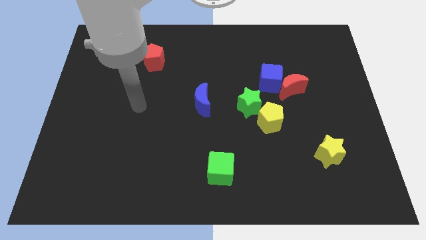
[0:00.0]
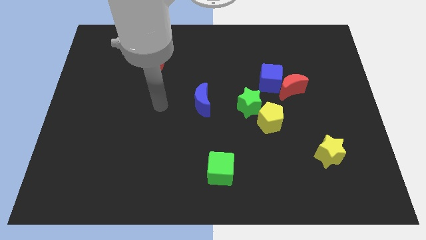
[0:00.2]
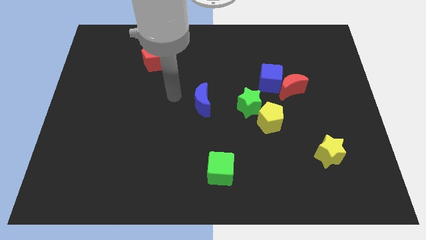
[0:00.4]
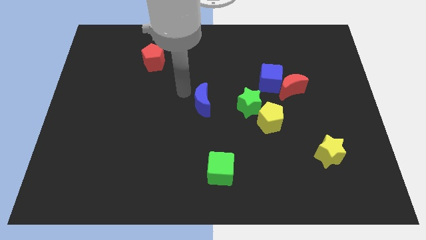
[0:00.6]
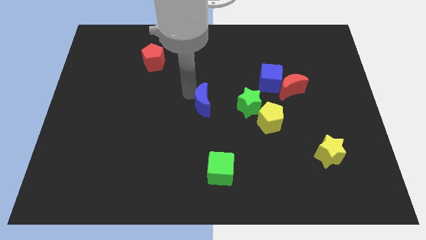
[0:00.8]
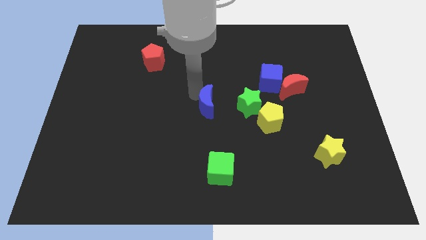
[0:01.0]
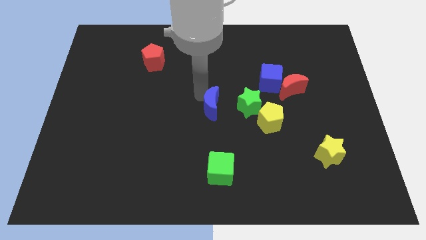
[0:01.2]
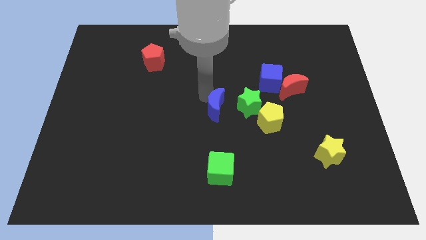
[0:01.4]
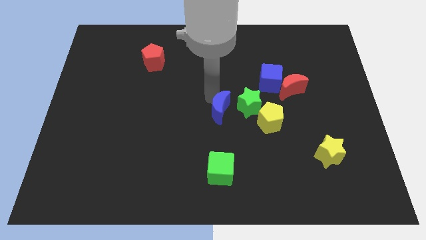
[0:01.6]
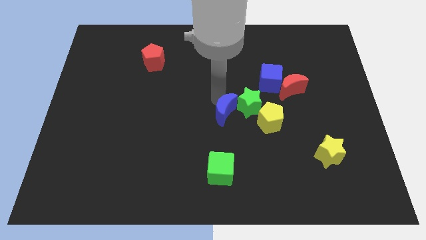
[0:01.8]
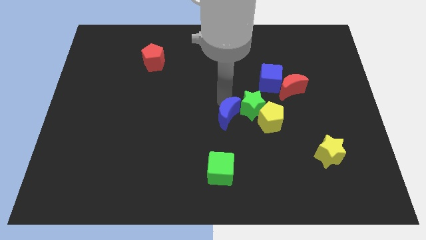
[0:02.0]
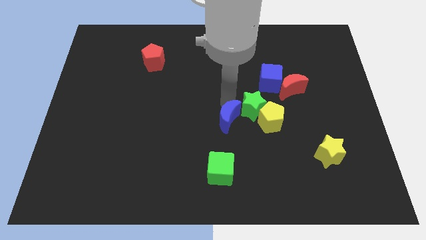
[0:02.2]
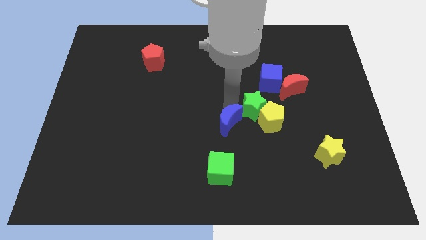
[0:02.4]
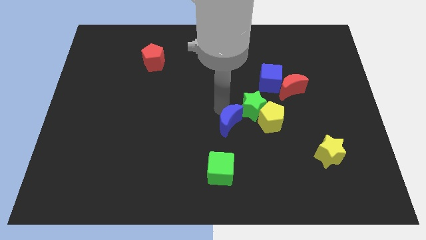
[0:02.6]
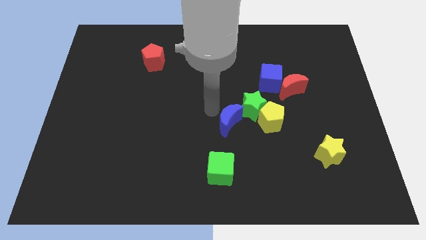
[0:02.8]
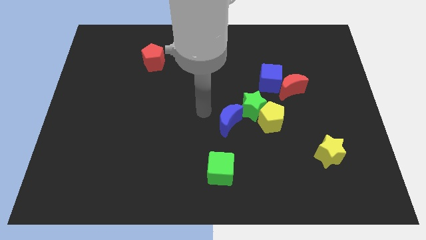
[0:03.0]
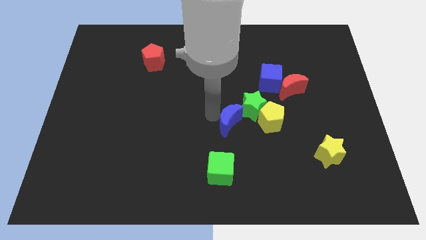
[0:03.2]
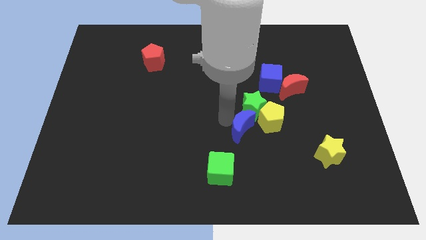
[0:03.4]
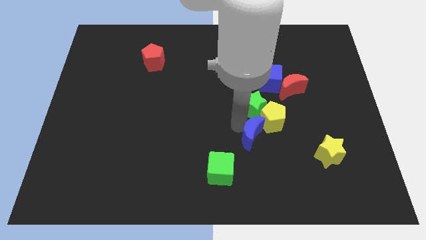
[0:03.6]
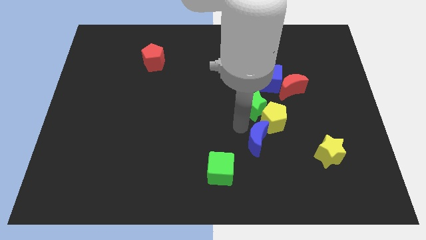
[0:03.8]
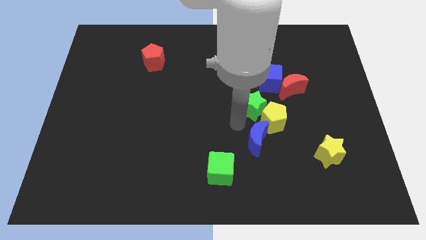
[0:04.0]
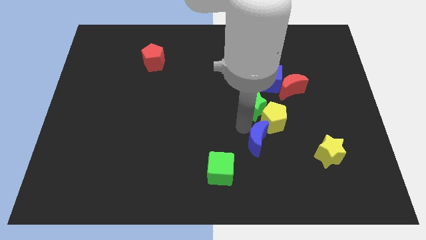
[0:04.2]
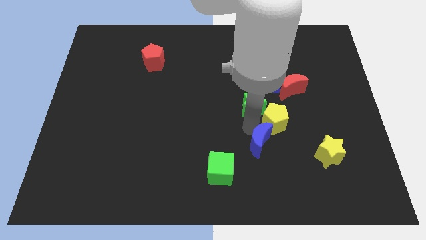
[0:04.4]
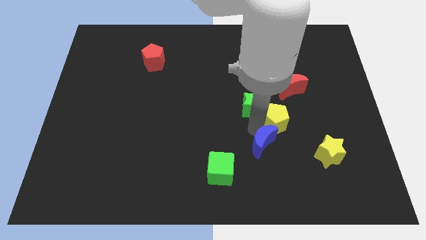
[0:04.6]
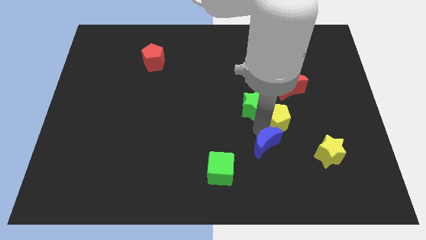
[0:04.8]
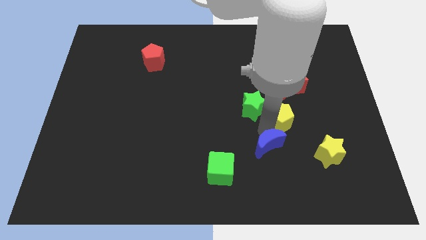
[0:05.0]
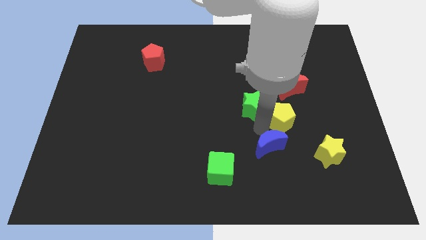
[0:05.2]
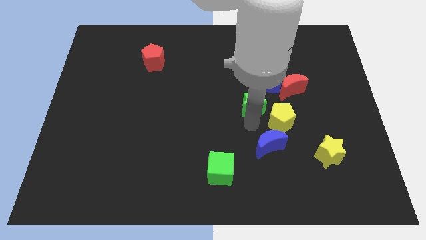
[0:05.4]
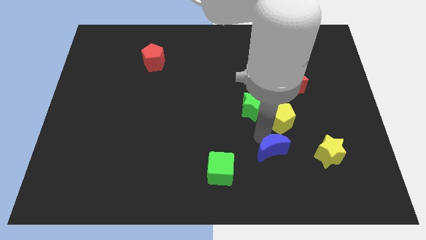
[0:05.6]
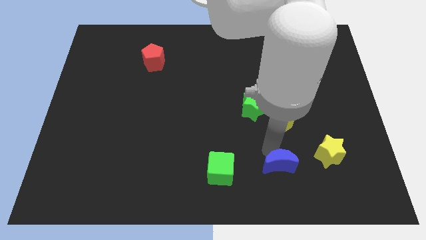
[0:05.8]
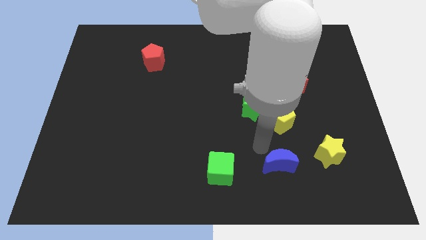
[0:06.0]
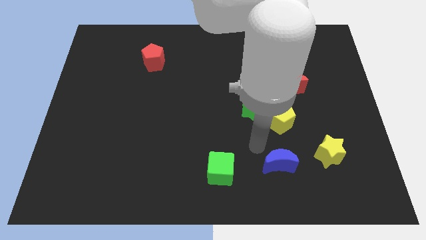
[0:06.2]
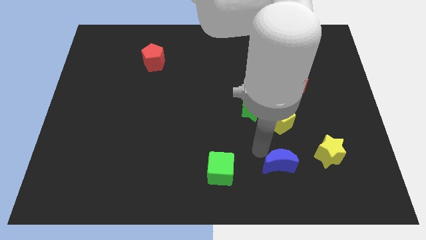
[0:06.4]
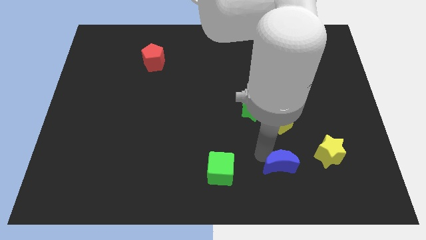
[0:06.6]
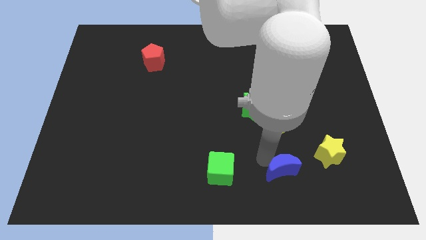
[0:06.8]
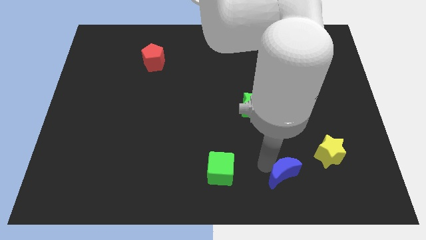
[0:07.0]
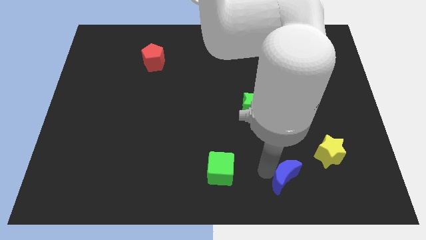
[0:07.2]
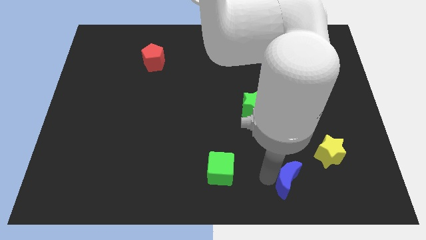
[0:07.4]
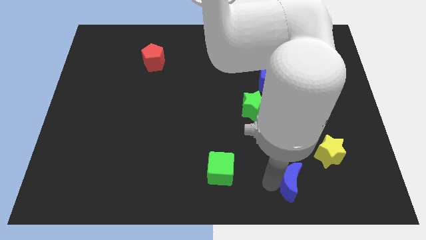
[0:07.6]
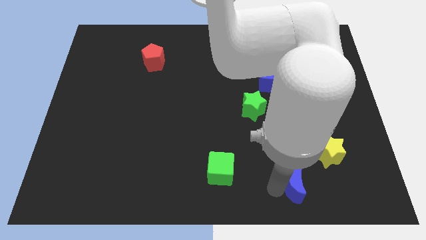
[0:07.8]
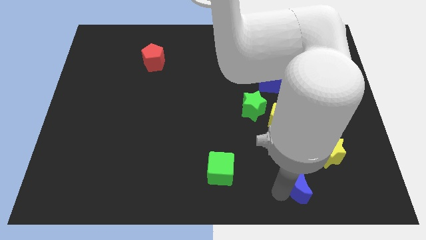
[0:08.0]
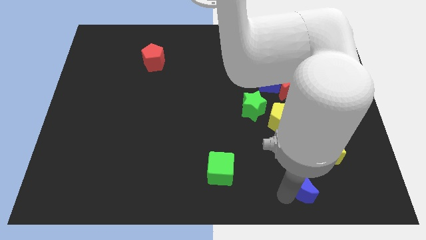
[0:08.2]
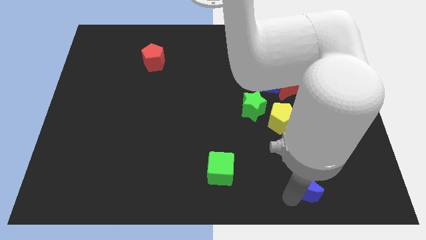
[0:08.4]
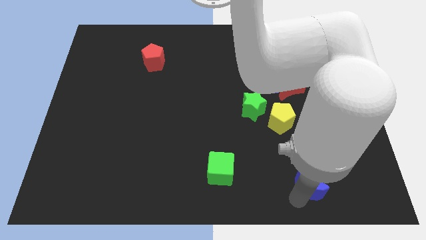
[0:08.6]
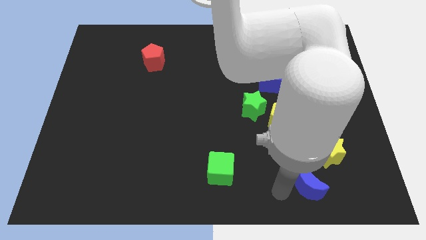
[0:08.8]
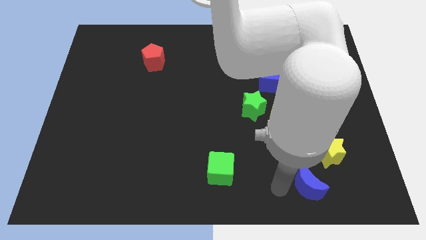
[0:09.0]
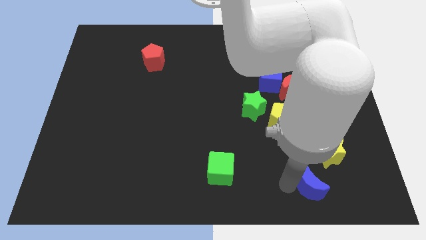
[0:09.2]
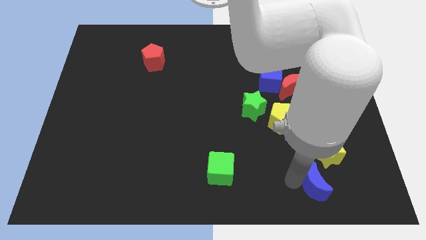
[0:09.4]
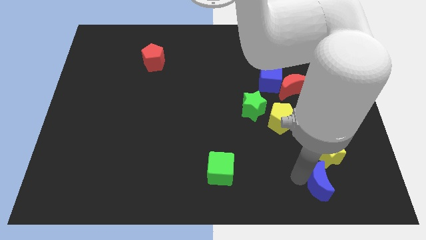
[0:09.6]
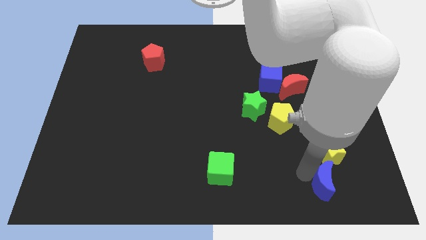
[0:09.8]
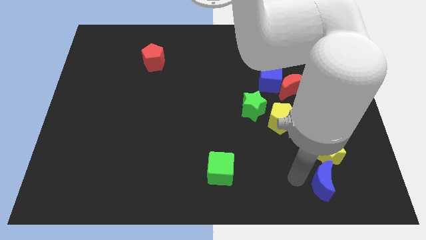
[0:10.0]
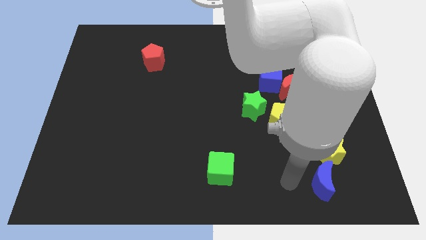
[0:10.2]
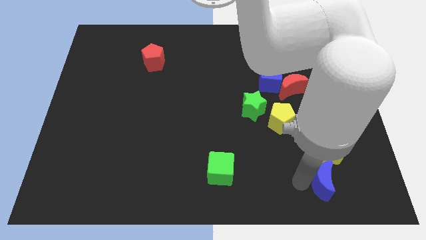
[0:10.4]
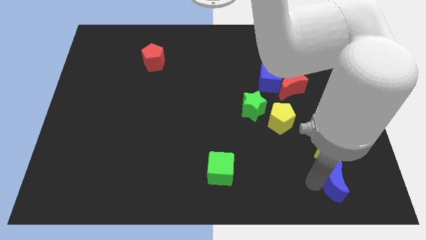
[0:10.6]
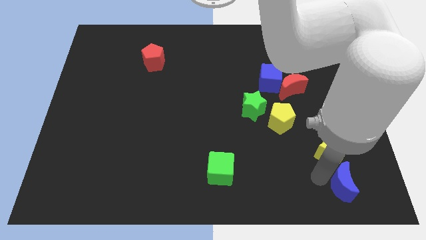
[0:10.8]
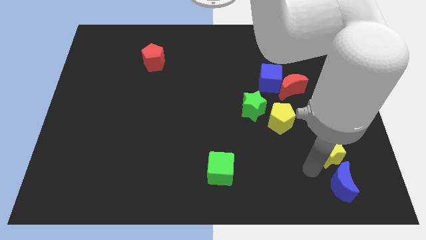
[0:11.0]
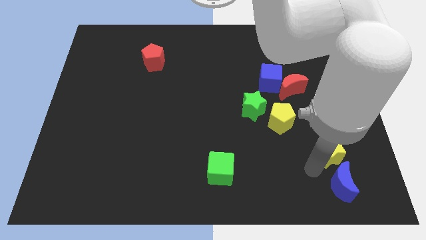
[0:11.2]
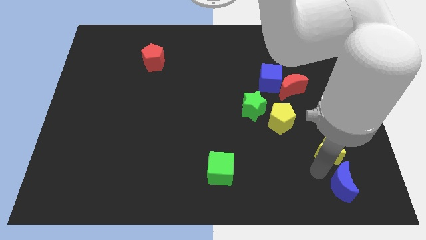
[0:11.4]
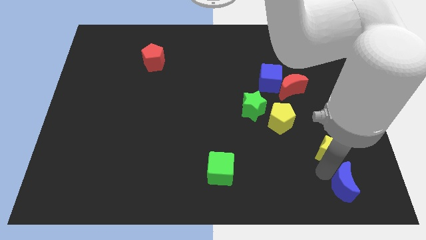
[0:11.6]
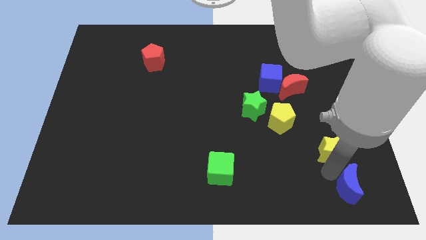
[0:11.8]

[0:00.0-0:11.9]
put the blue moon to the bottom right of the board
